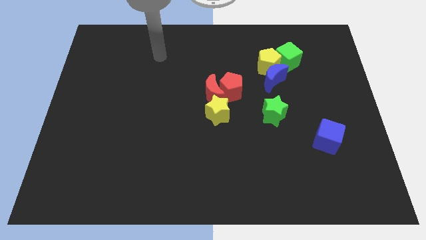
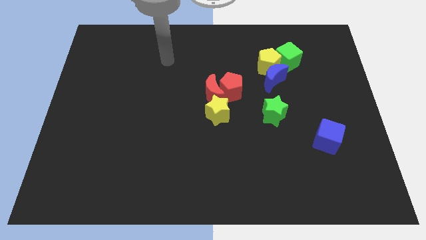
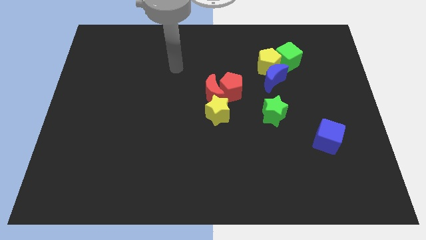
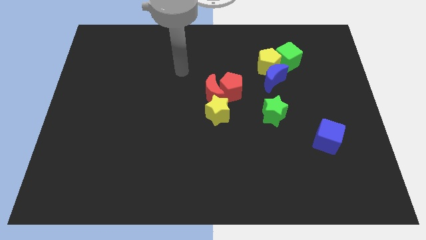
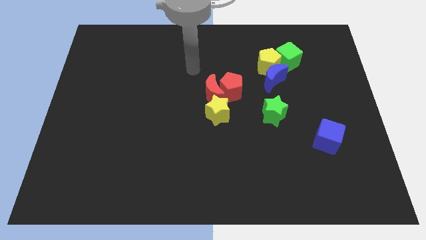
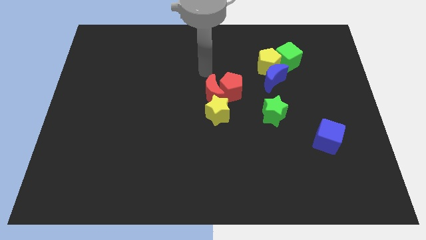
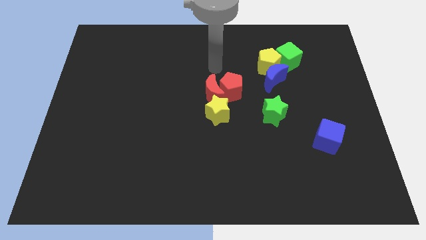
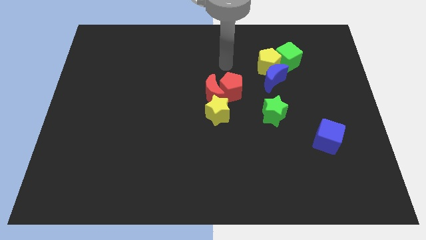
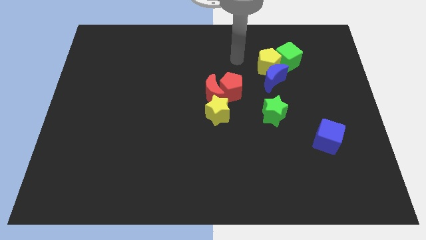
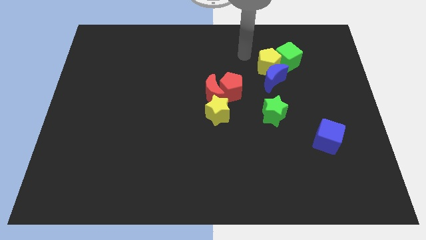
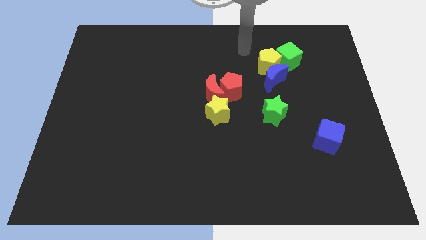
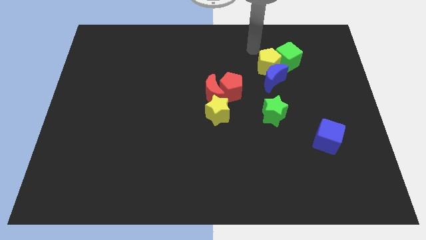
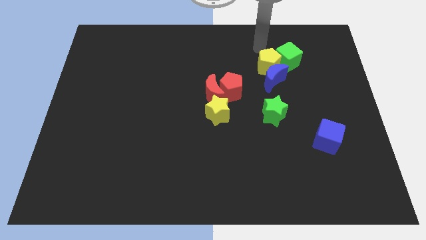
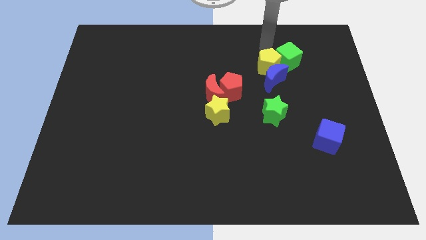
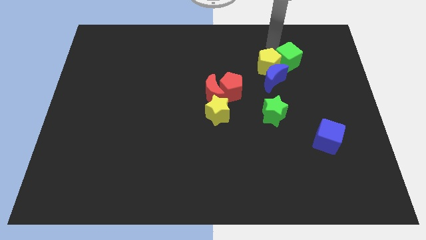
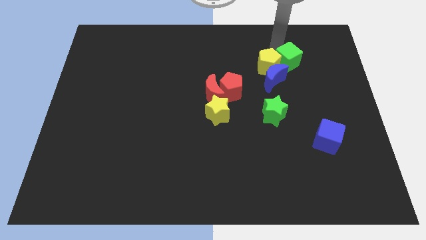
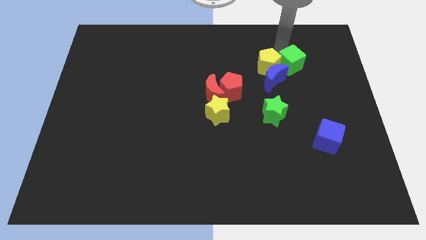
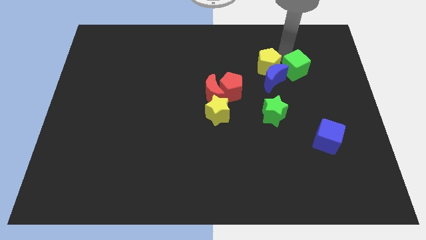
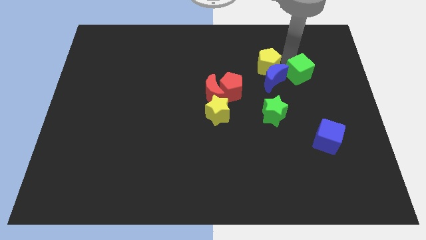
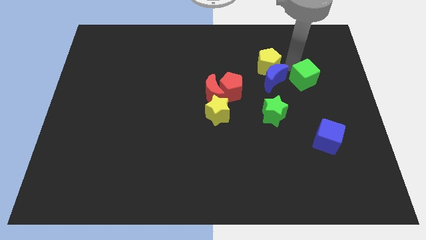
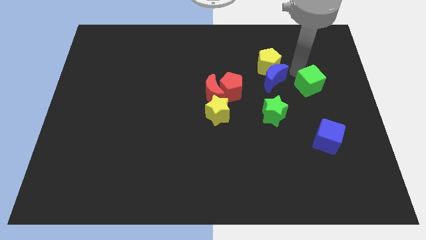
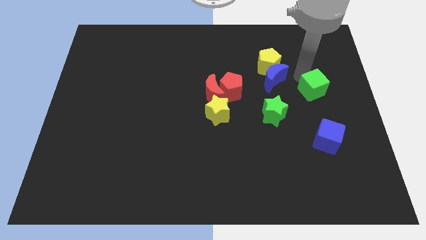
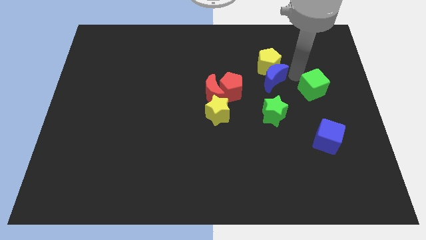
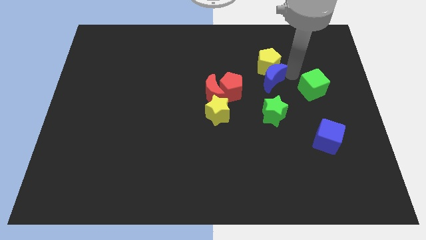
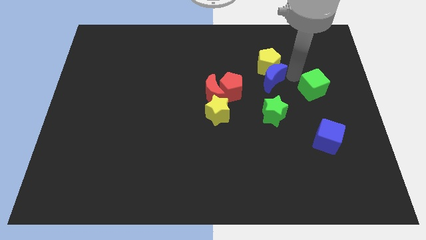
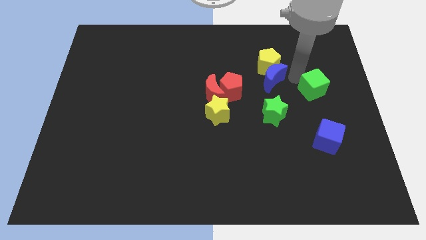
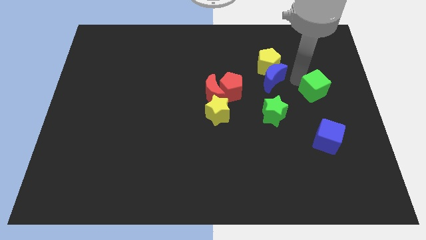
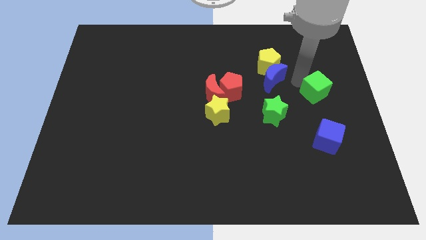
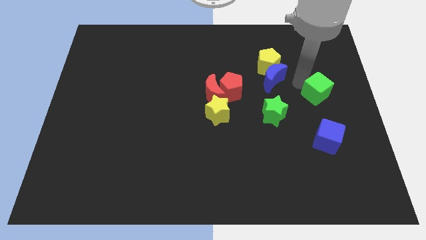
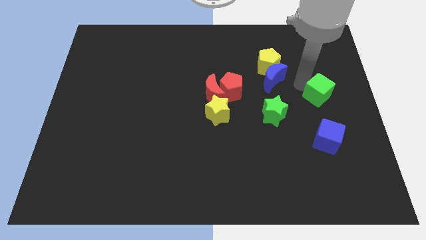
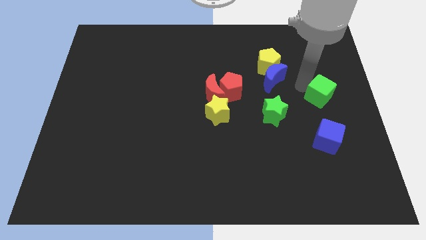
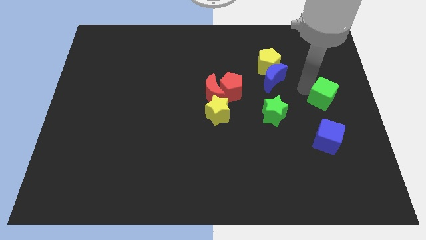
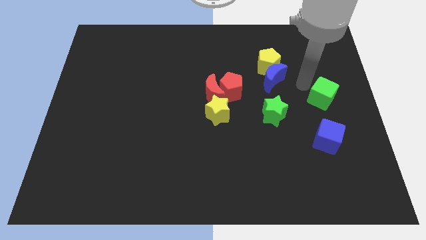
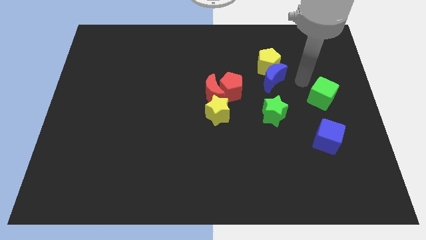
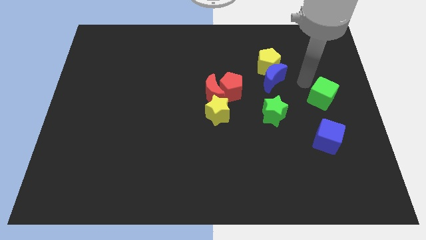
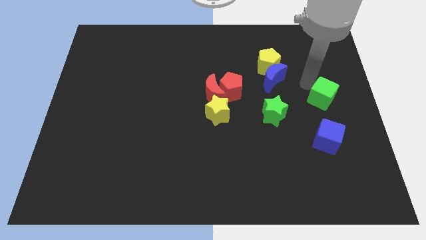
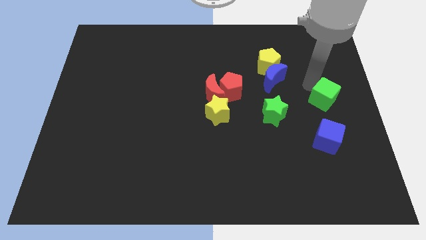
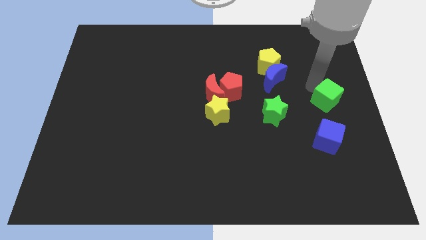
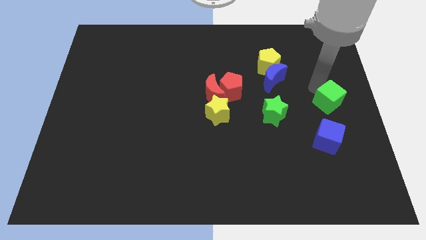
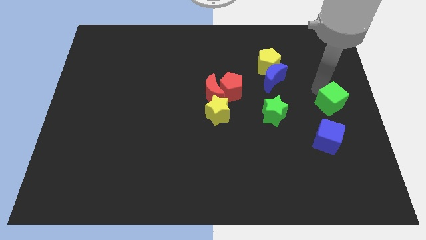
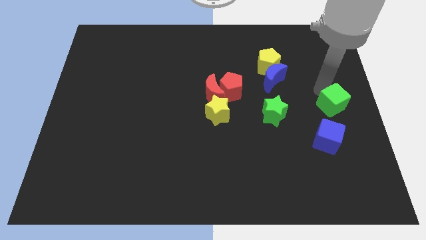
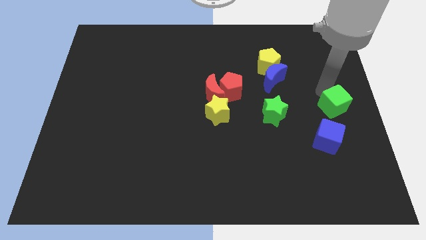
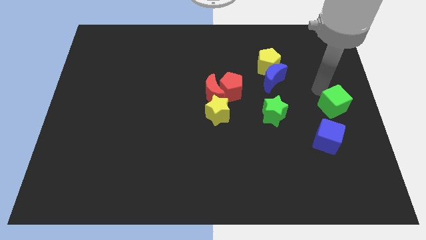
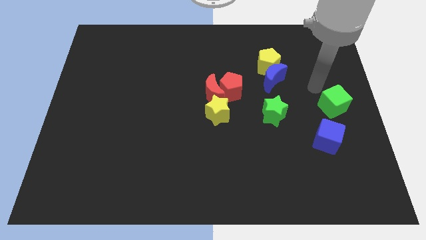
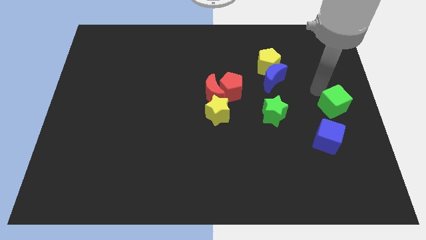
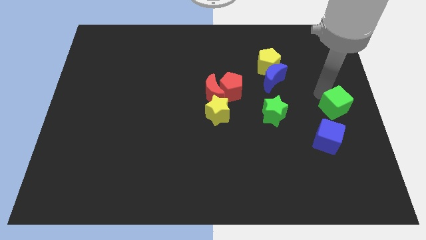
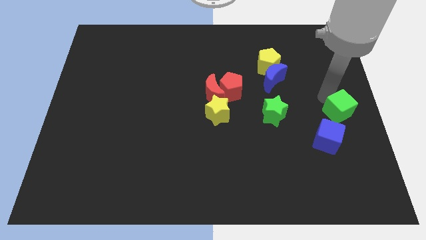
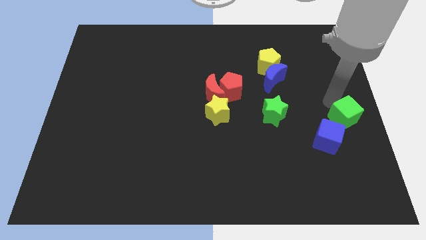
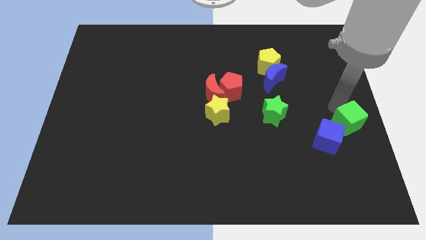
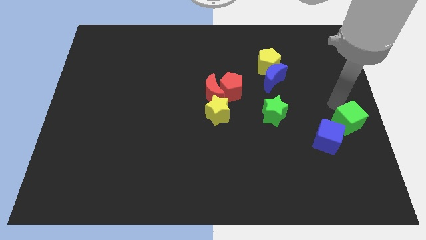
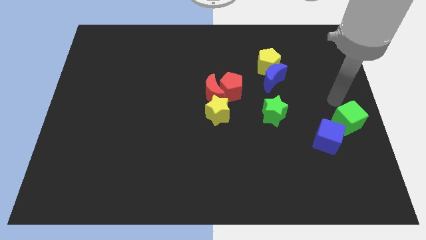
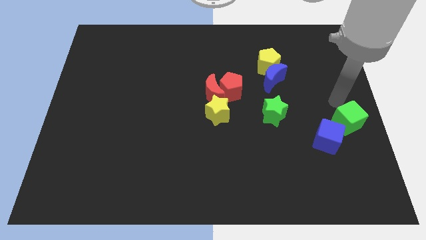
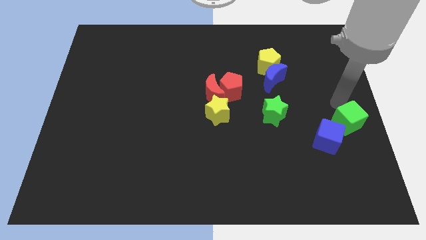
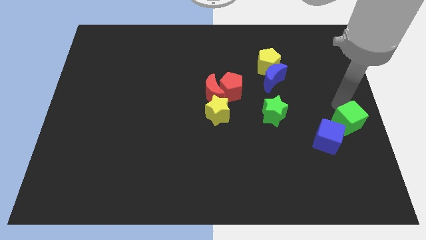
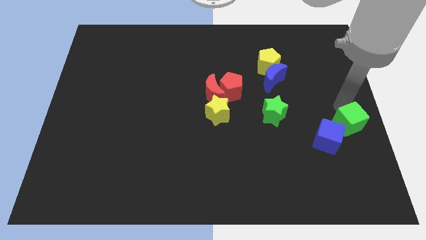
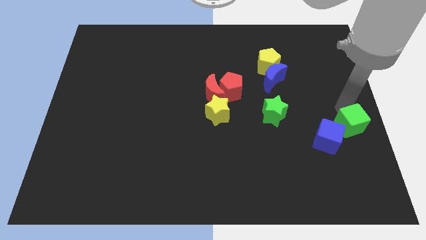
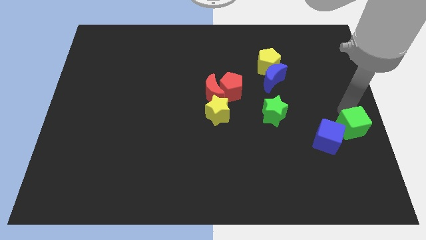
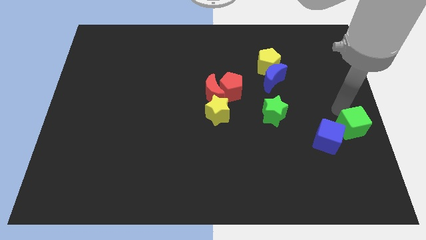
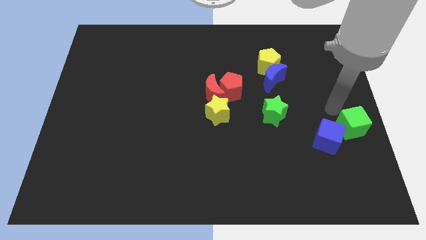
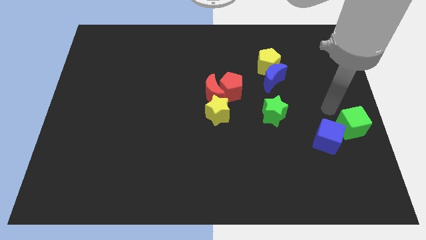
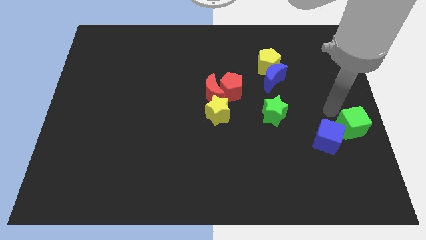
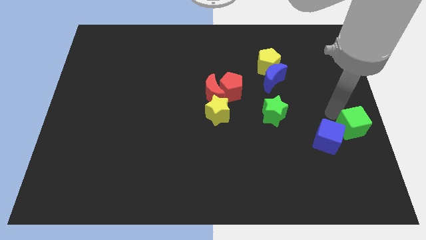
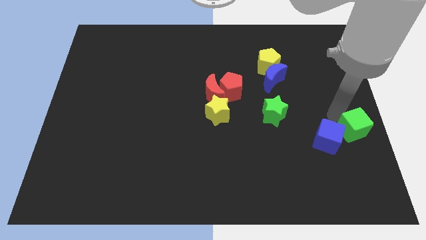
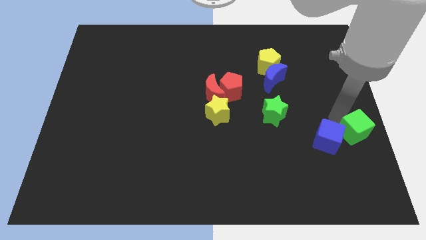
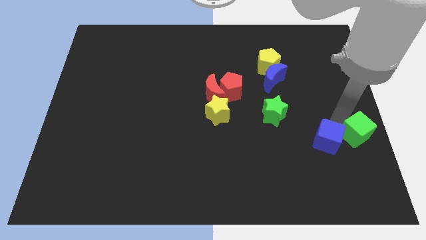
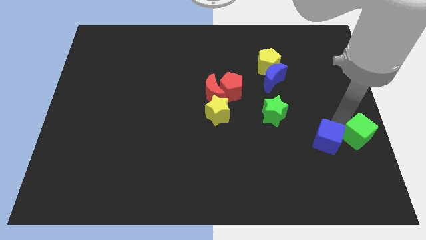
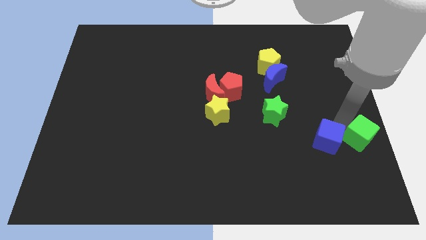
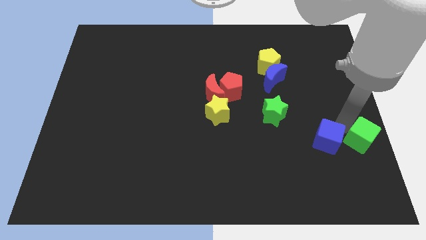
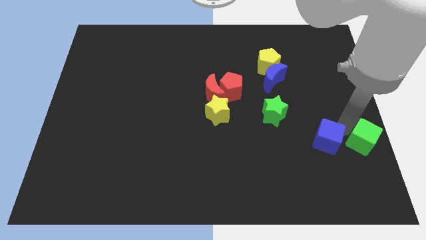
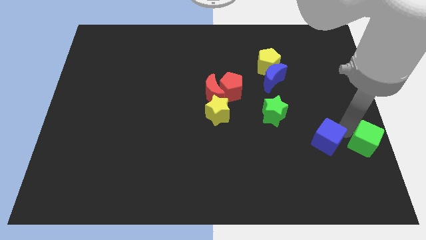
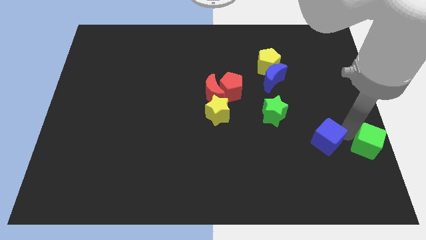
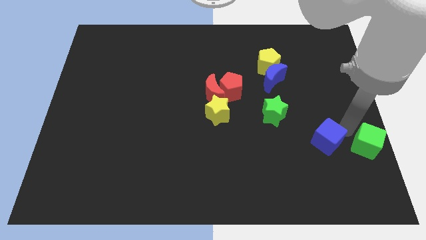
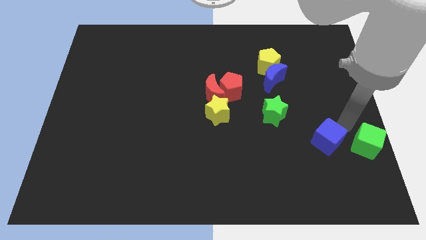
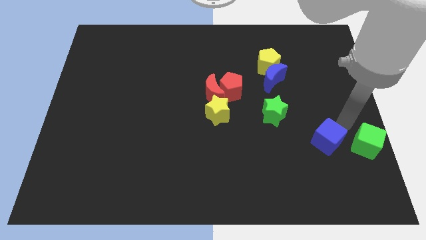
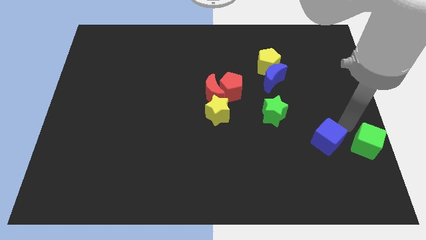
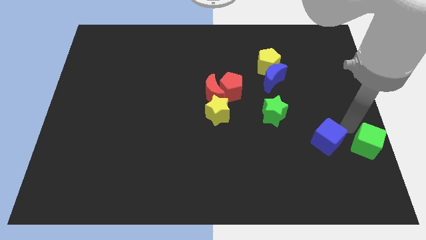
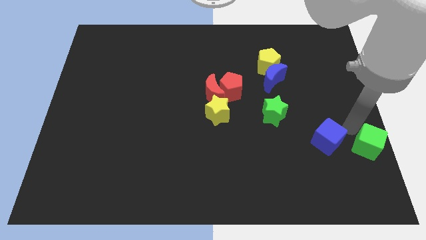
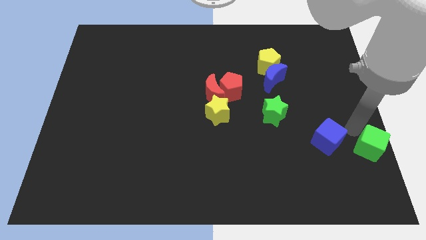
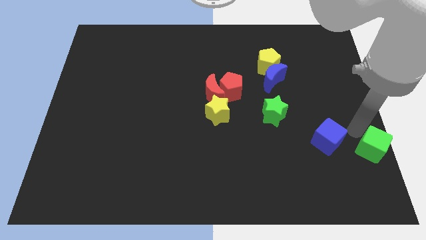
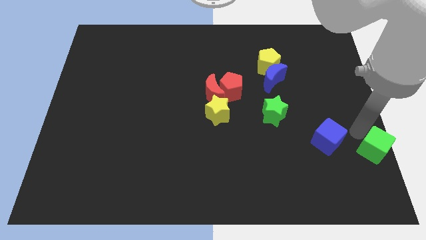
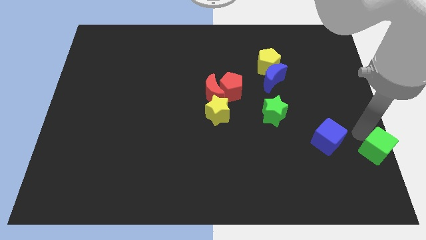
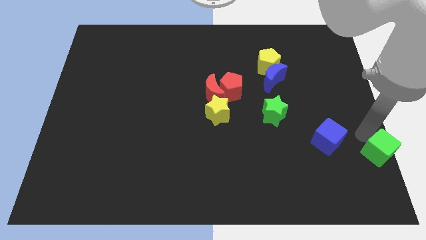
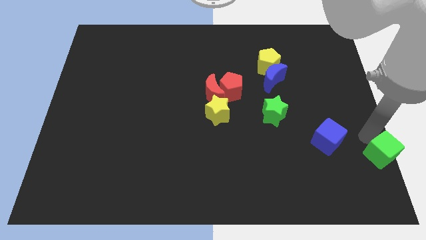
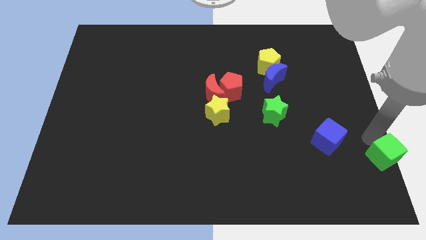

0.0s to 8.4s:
move the green cube to the lower right corner
